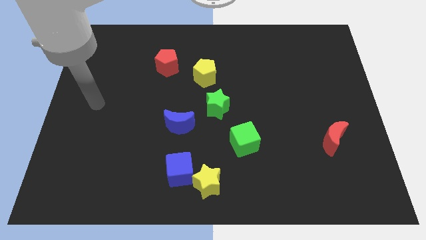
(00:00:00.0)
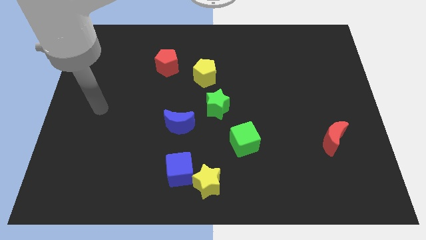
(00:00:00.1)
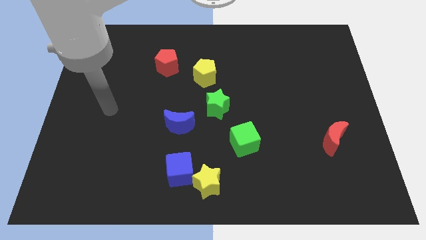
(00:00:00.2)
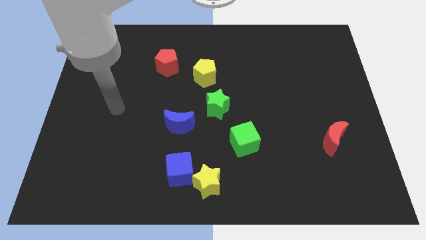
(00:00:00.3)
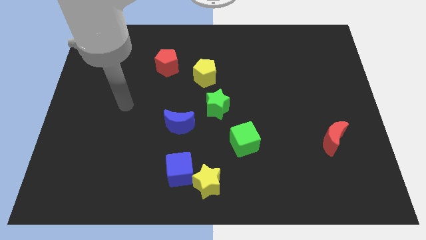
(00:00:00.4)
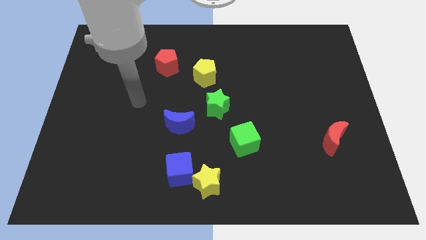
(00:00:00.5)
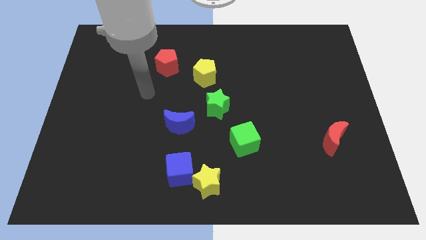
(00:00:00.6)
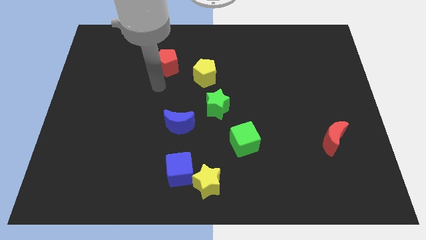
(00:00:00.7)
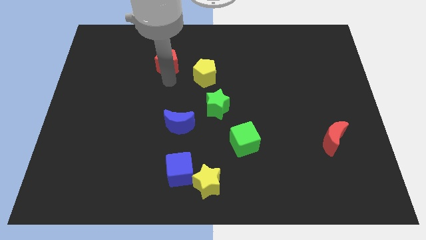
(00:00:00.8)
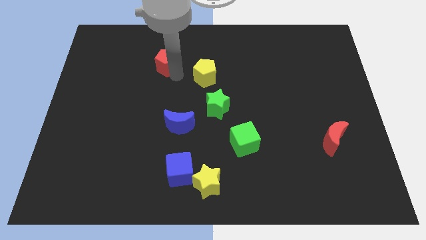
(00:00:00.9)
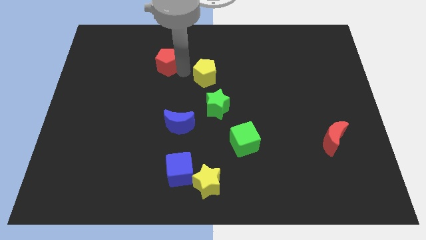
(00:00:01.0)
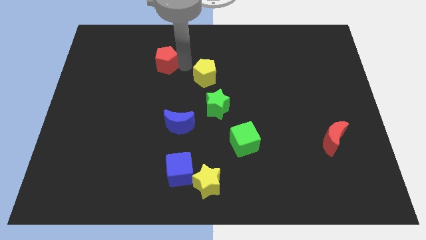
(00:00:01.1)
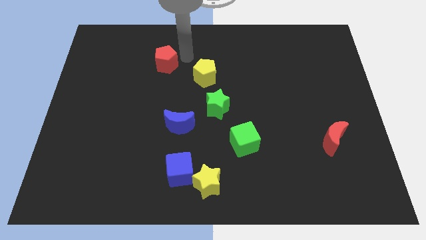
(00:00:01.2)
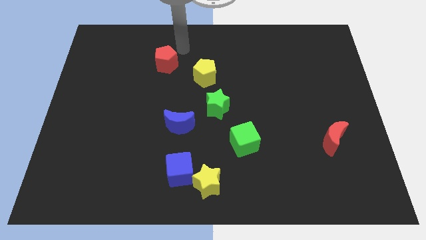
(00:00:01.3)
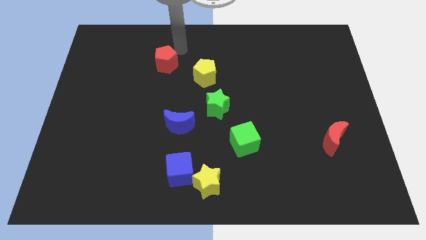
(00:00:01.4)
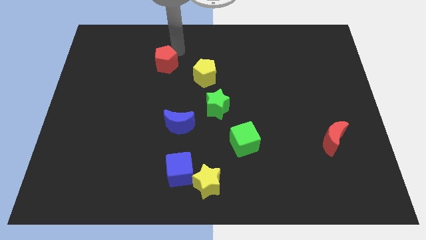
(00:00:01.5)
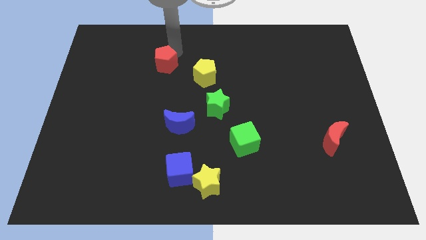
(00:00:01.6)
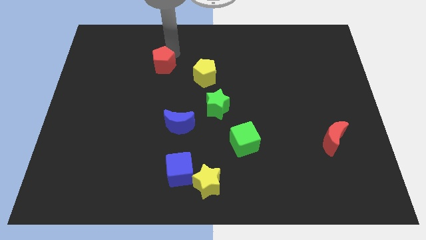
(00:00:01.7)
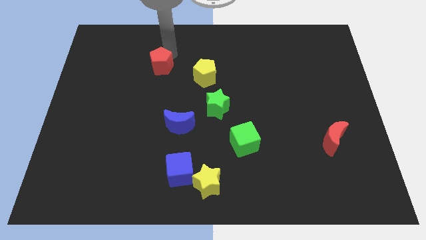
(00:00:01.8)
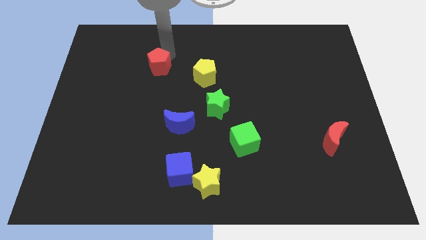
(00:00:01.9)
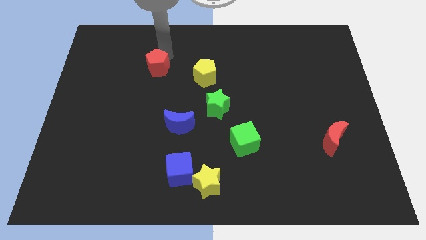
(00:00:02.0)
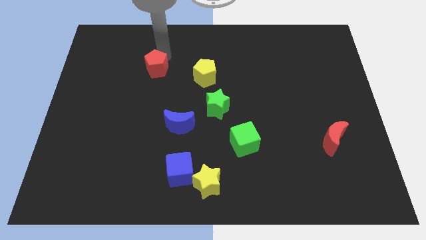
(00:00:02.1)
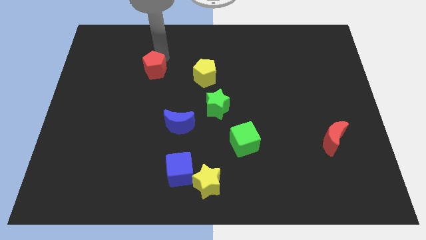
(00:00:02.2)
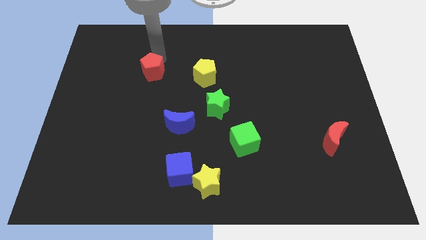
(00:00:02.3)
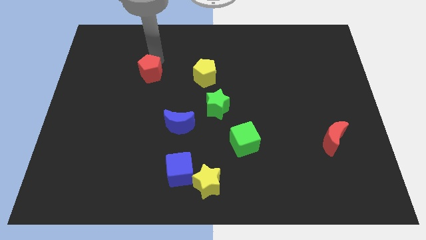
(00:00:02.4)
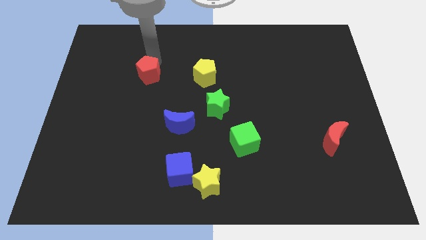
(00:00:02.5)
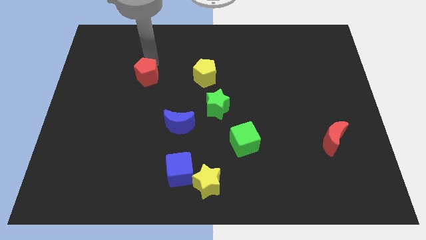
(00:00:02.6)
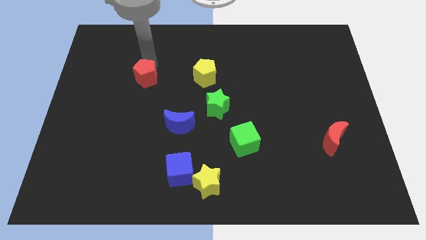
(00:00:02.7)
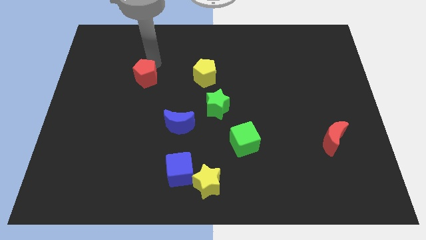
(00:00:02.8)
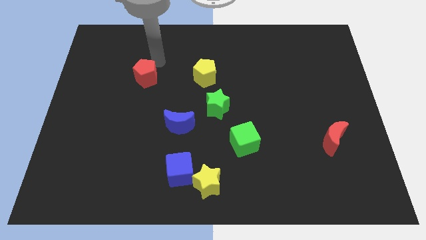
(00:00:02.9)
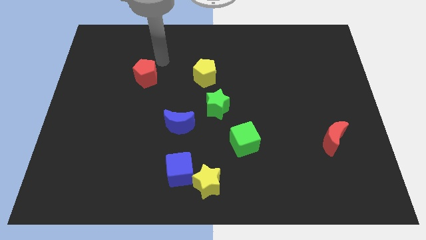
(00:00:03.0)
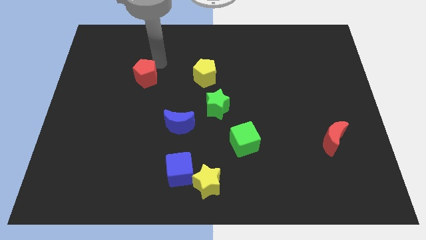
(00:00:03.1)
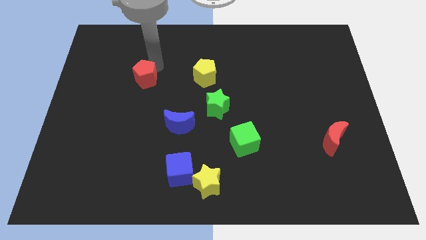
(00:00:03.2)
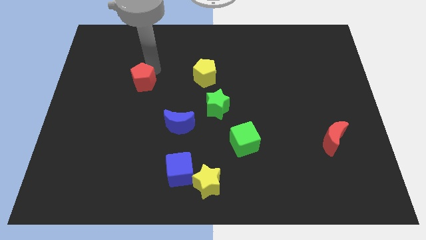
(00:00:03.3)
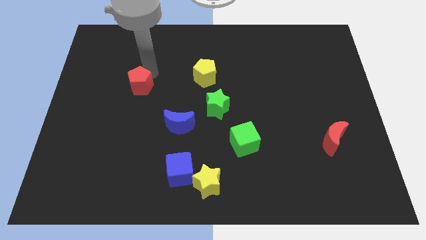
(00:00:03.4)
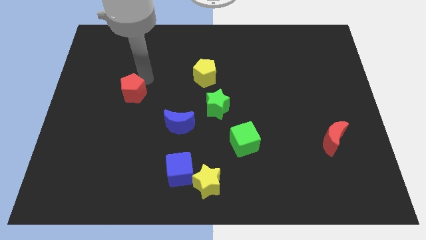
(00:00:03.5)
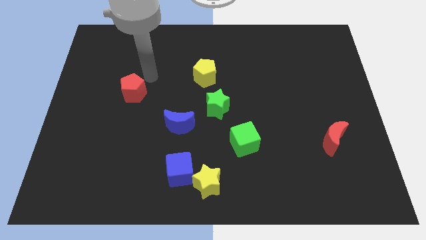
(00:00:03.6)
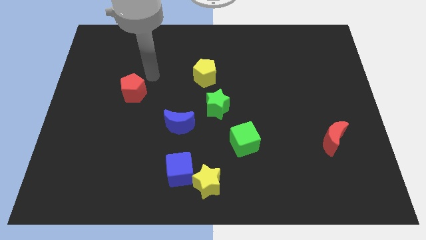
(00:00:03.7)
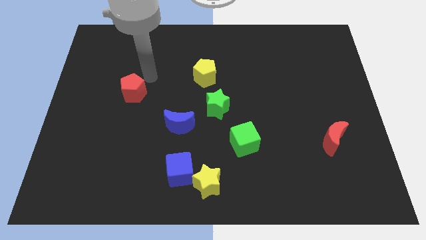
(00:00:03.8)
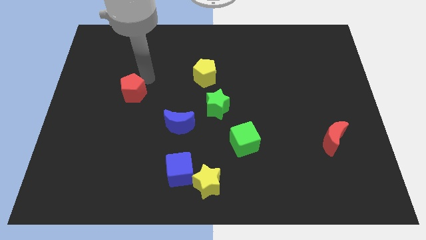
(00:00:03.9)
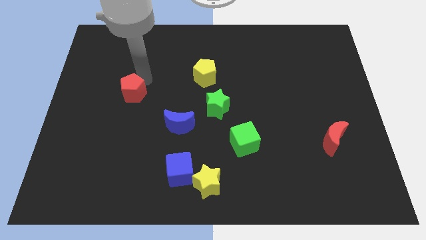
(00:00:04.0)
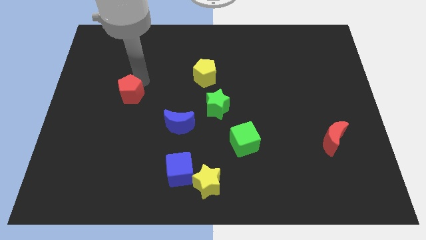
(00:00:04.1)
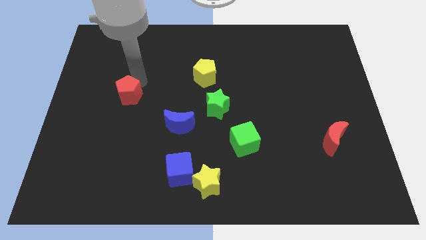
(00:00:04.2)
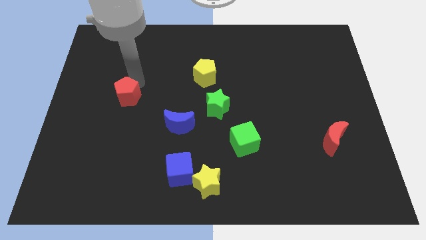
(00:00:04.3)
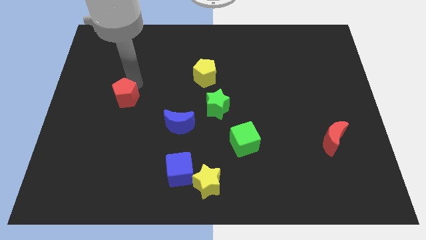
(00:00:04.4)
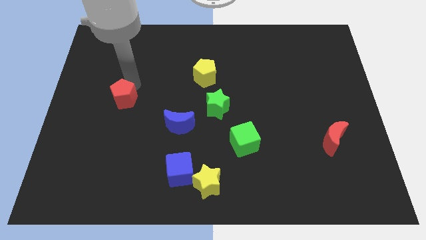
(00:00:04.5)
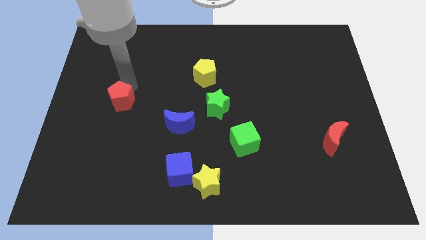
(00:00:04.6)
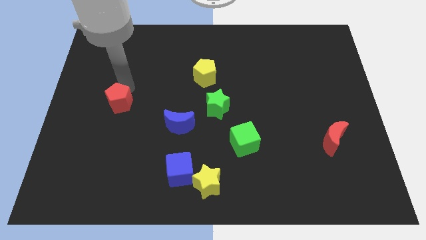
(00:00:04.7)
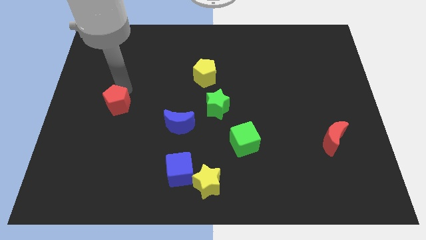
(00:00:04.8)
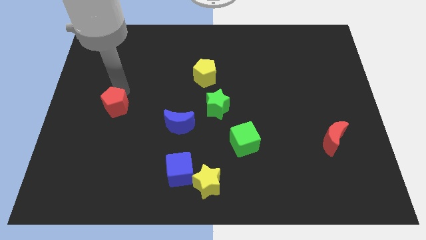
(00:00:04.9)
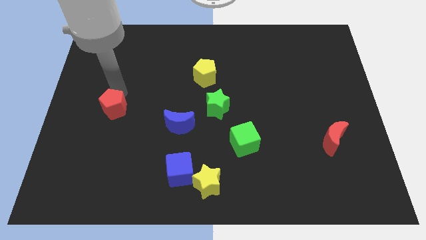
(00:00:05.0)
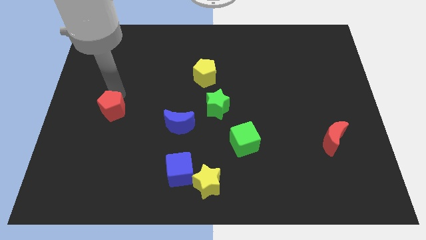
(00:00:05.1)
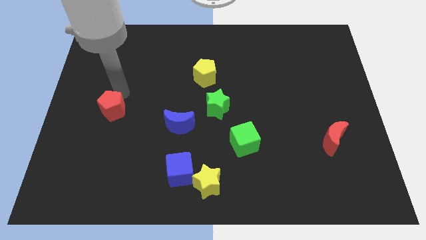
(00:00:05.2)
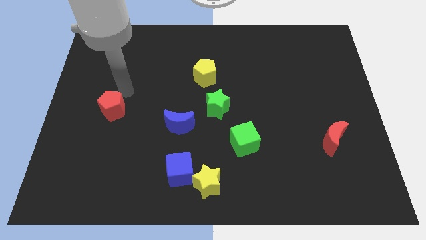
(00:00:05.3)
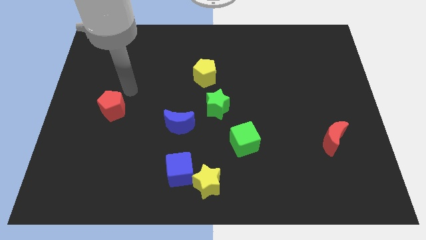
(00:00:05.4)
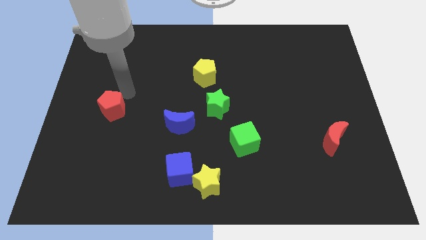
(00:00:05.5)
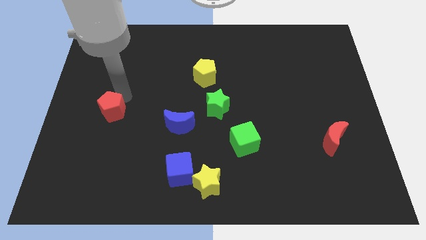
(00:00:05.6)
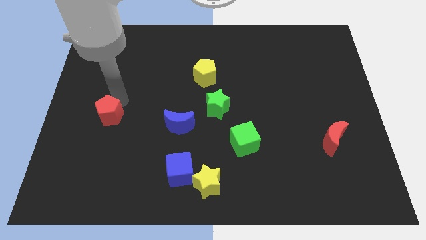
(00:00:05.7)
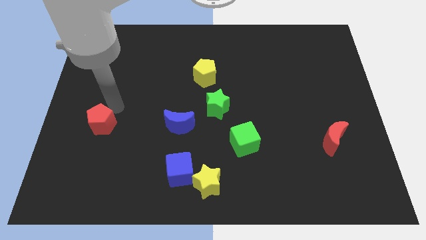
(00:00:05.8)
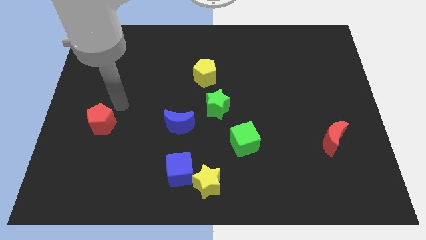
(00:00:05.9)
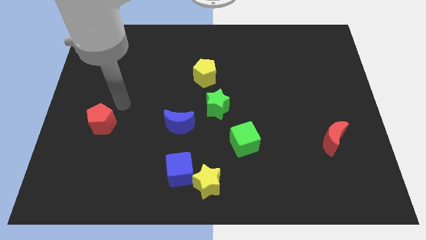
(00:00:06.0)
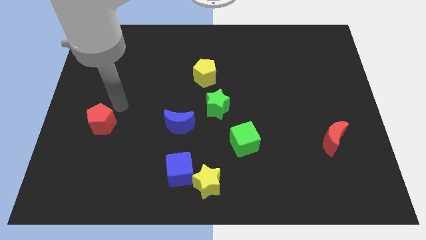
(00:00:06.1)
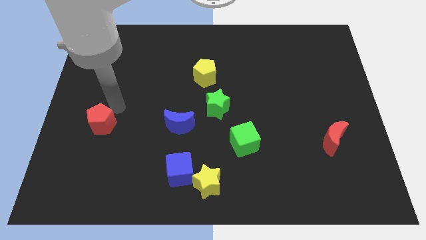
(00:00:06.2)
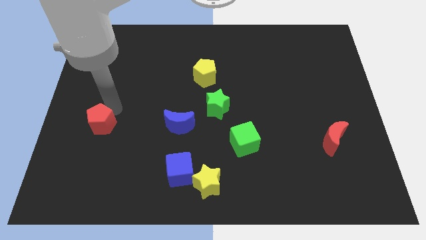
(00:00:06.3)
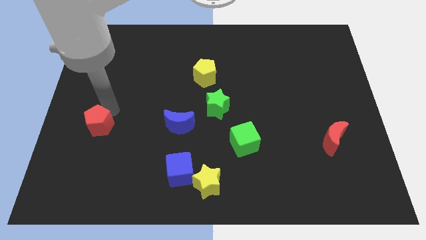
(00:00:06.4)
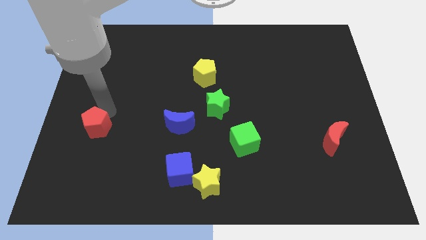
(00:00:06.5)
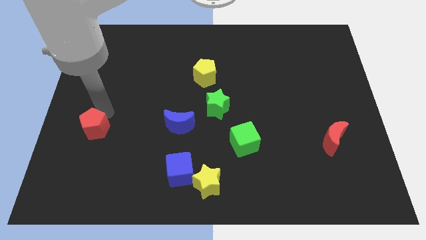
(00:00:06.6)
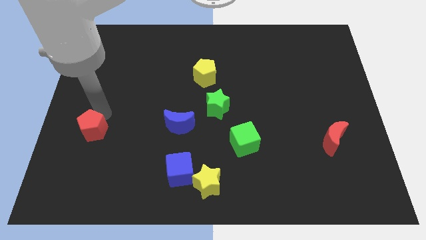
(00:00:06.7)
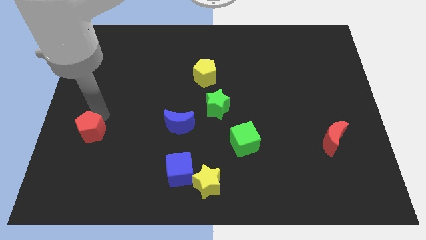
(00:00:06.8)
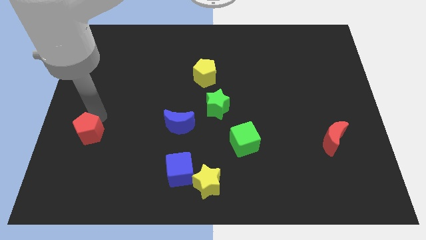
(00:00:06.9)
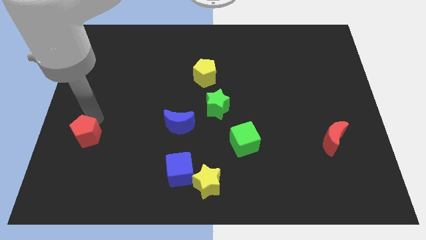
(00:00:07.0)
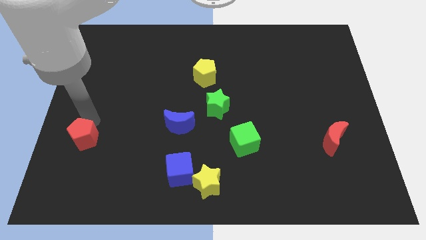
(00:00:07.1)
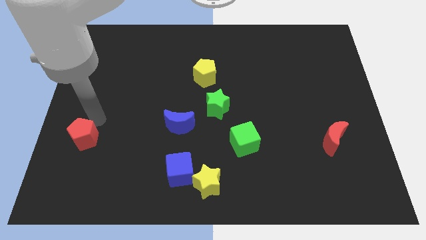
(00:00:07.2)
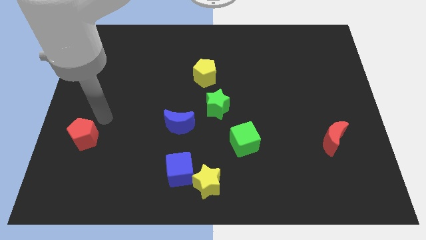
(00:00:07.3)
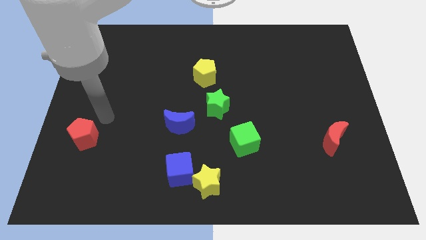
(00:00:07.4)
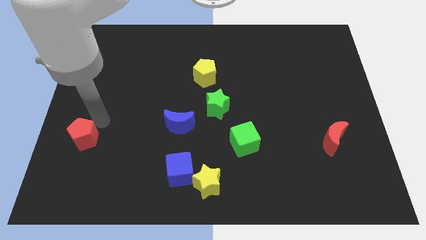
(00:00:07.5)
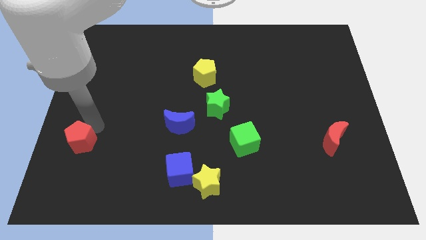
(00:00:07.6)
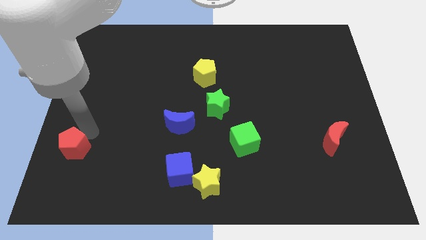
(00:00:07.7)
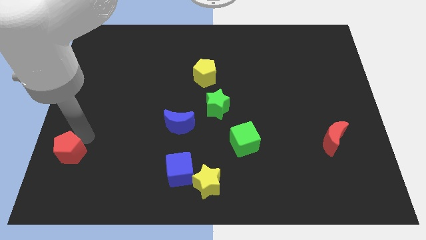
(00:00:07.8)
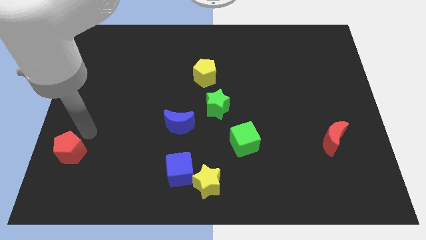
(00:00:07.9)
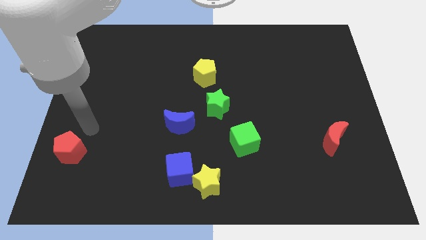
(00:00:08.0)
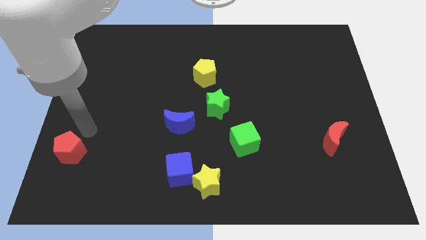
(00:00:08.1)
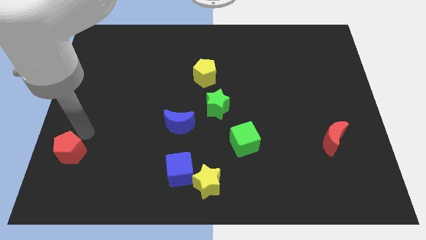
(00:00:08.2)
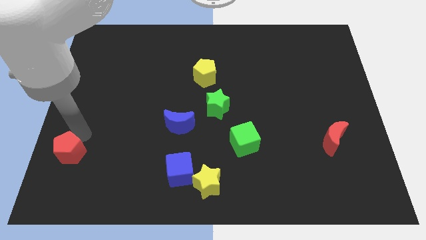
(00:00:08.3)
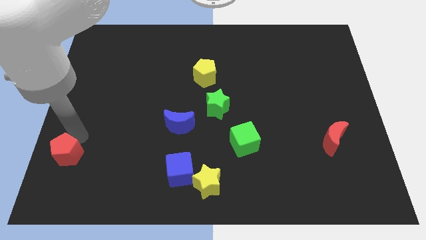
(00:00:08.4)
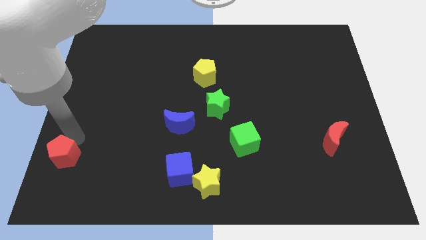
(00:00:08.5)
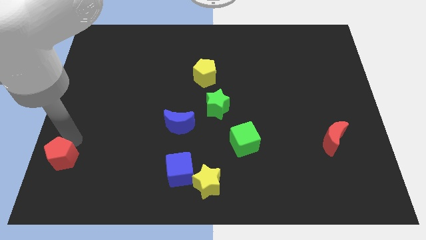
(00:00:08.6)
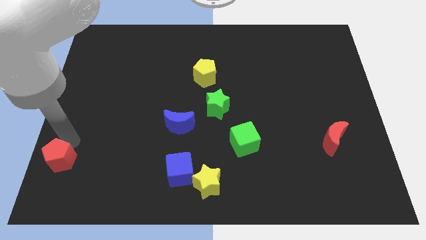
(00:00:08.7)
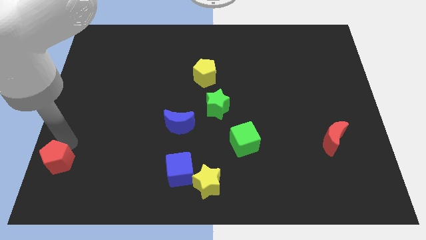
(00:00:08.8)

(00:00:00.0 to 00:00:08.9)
slide the red pentagon to the bottom left corner
